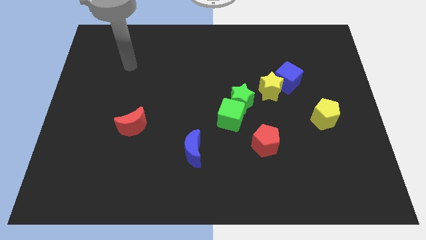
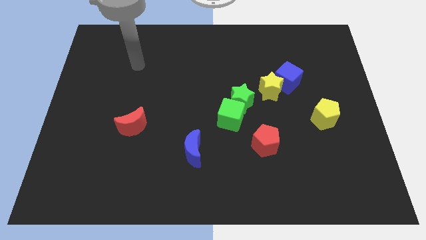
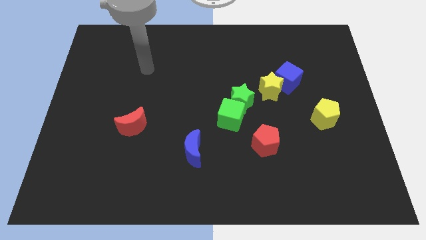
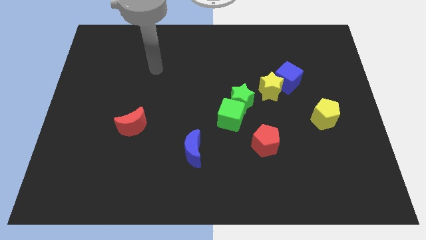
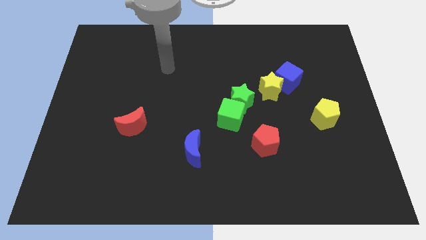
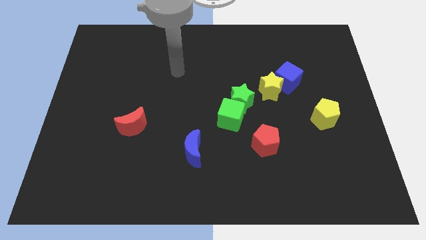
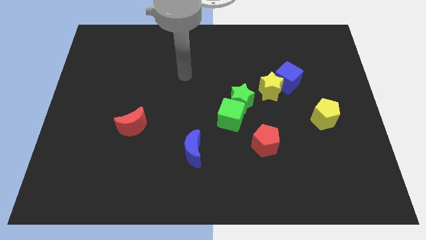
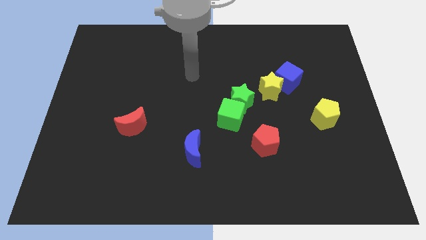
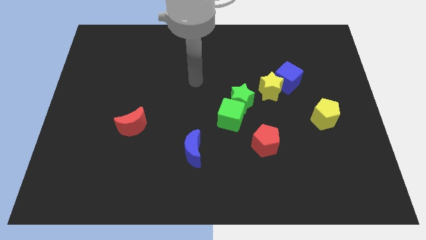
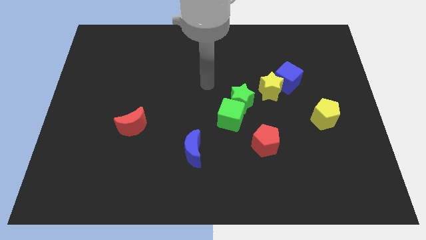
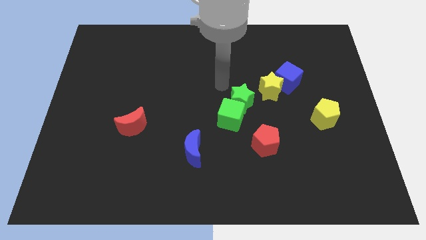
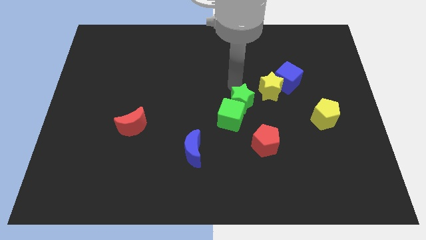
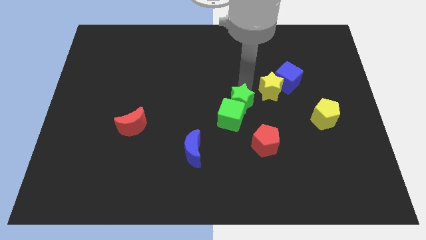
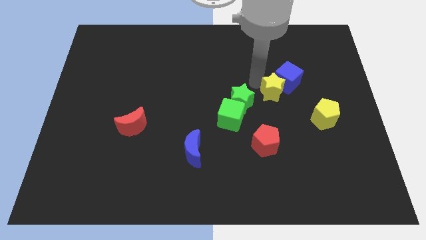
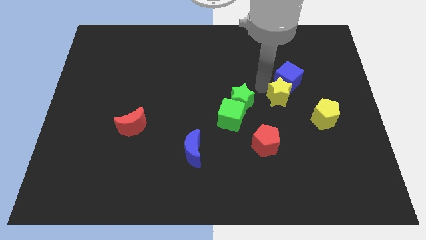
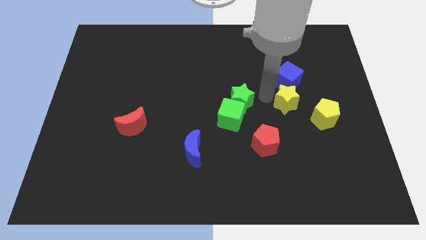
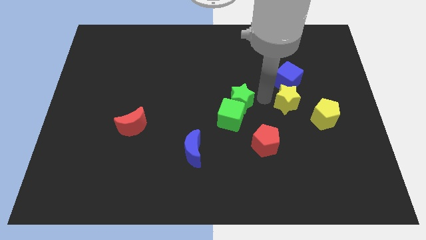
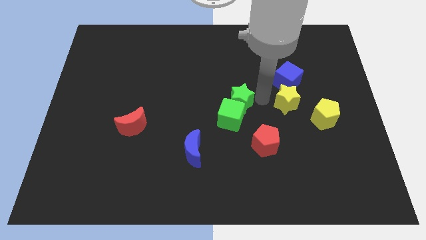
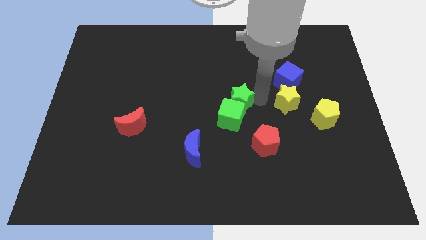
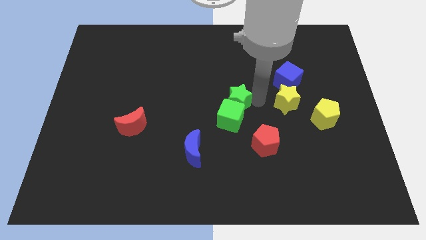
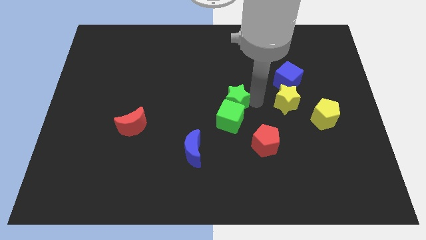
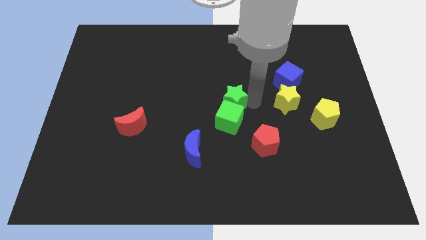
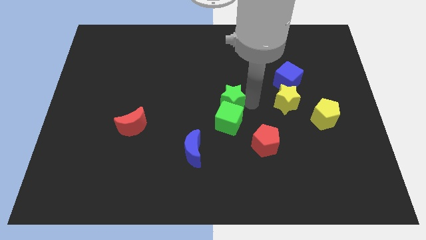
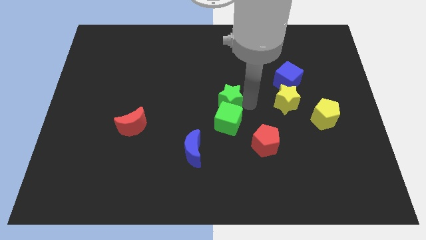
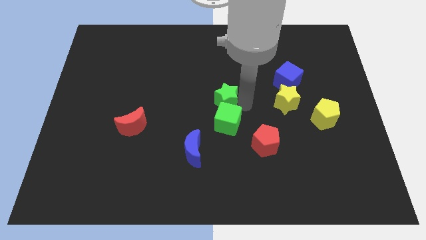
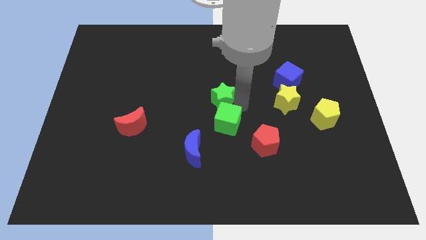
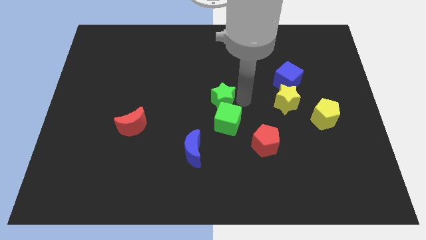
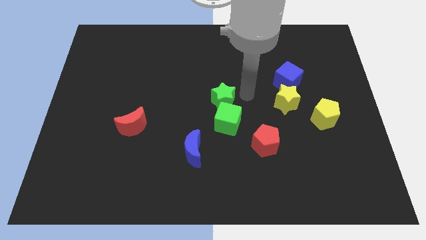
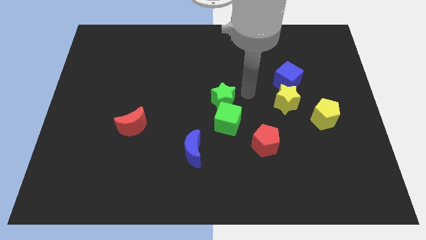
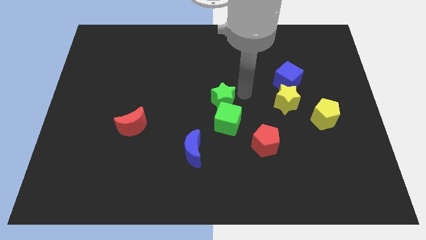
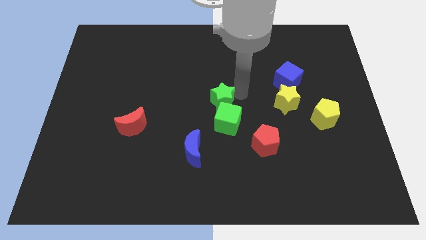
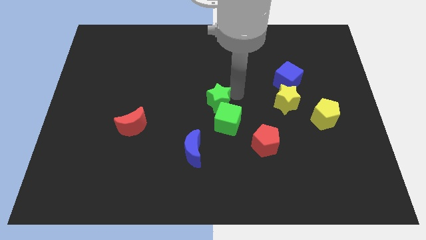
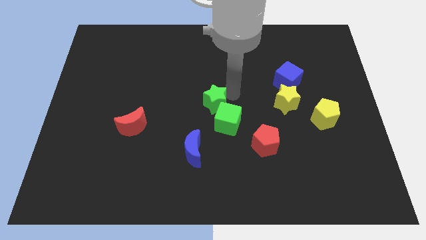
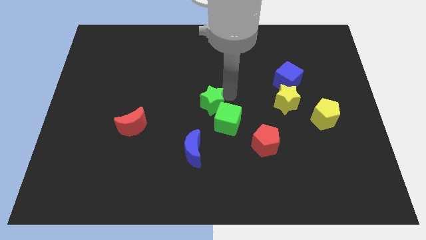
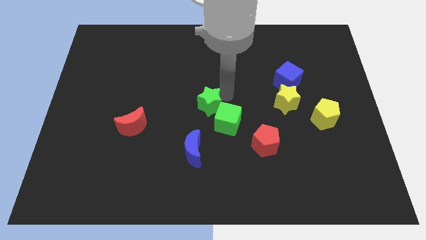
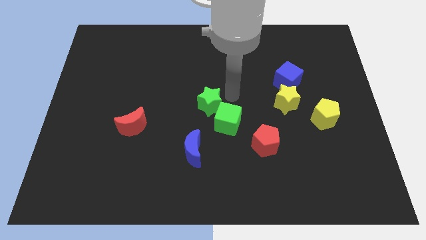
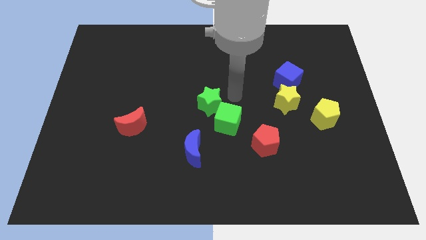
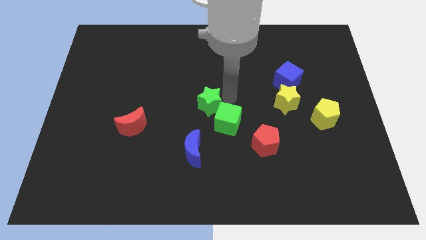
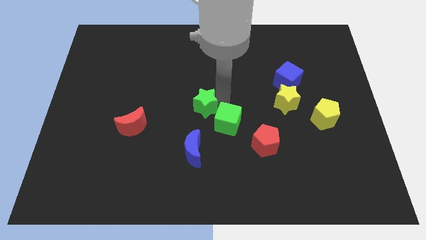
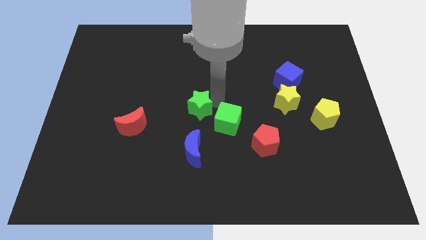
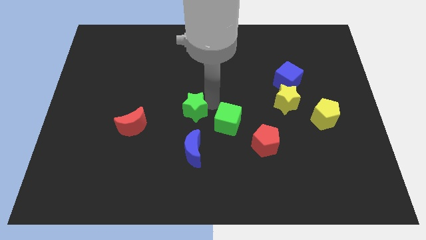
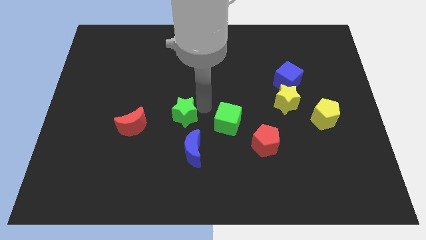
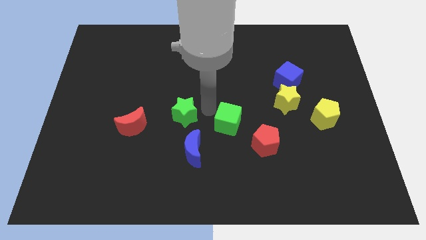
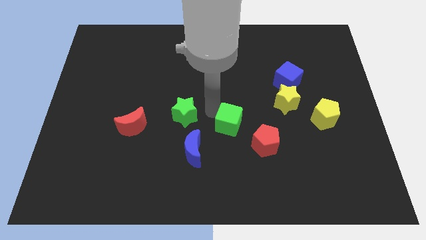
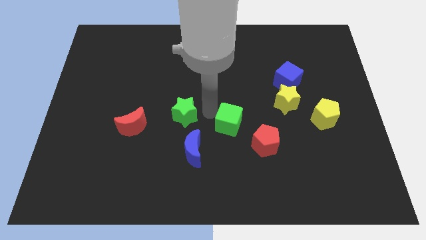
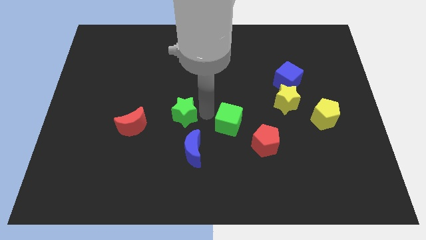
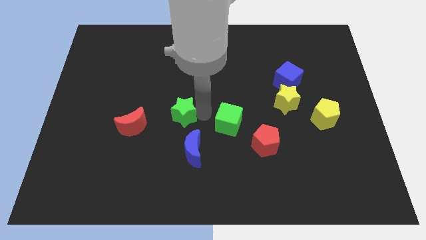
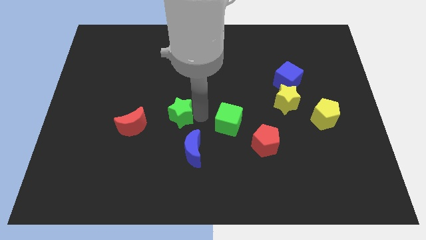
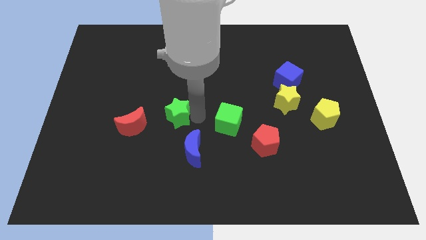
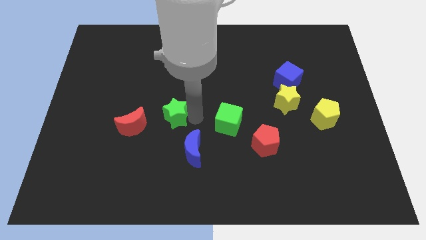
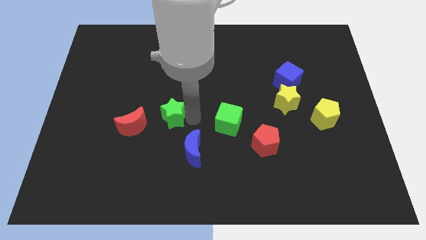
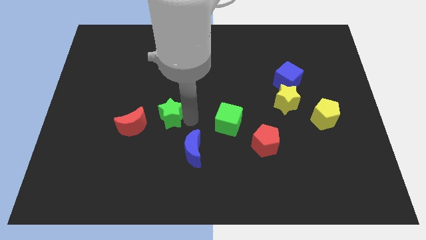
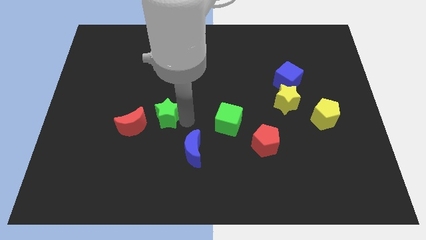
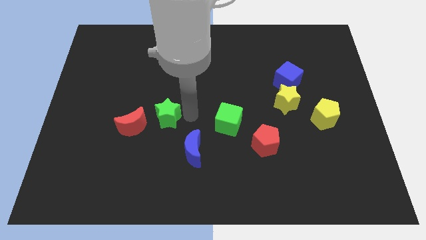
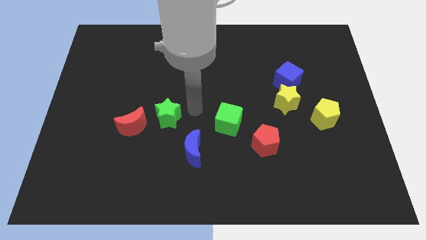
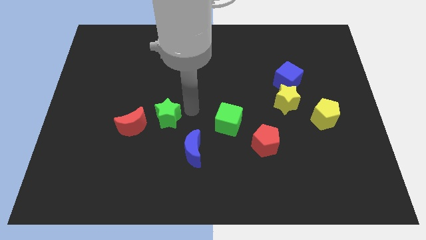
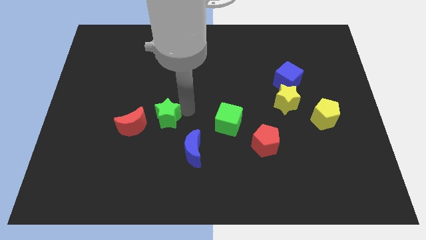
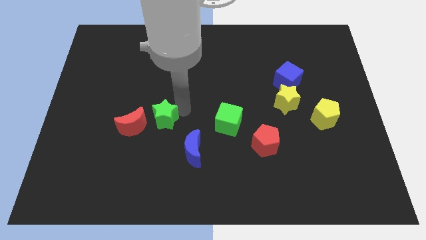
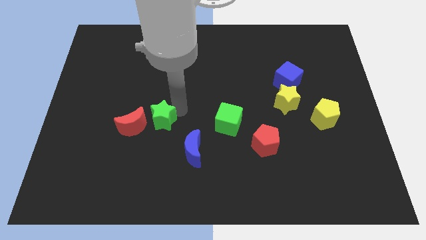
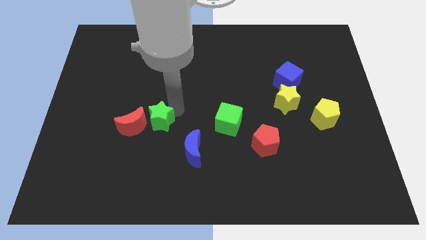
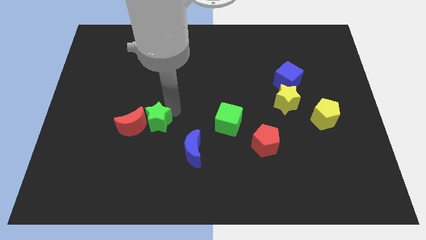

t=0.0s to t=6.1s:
put the green star close to the red moon

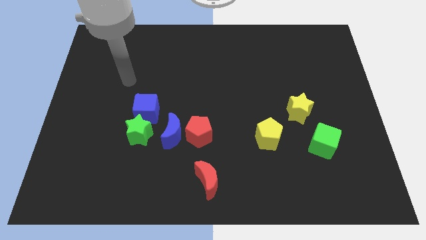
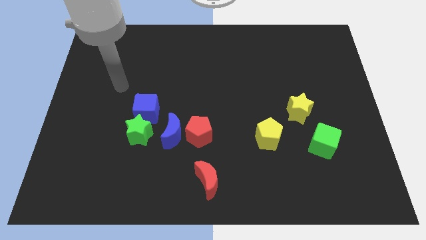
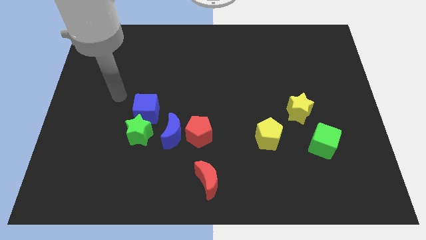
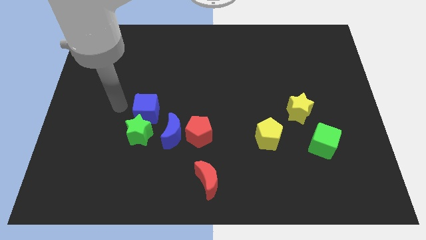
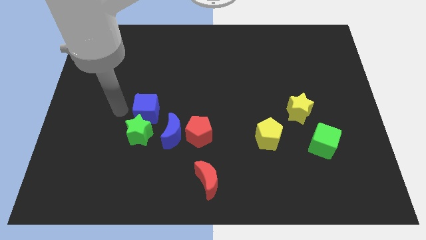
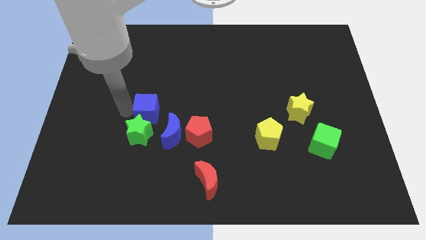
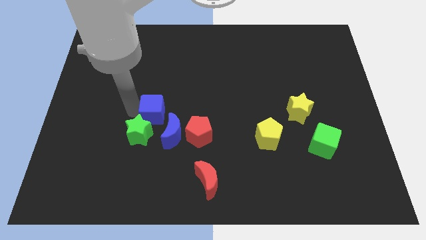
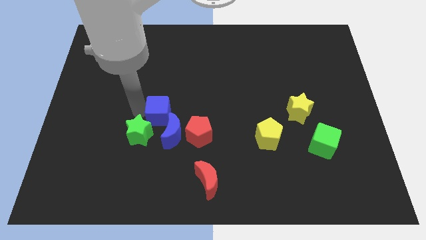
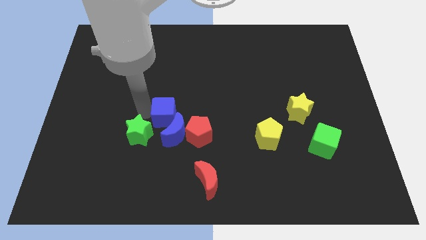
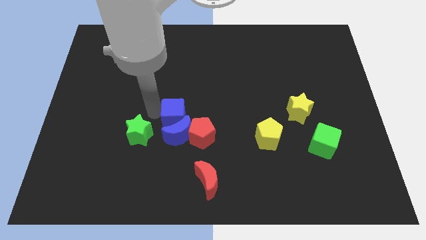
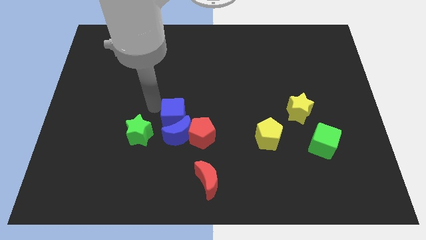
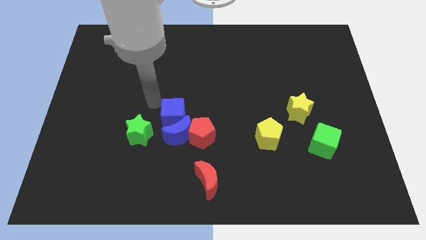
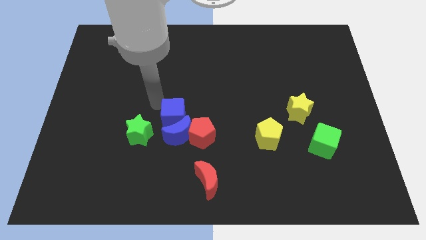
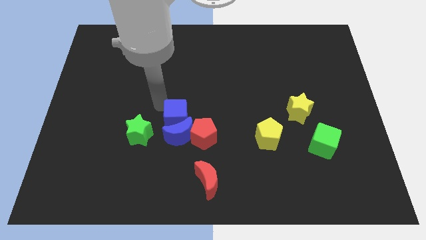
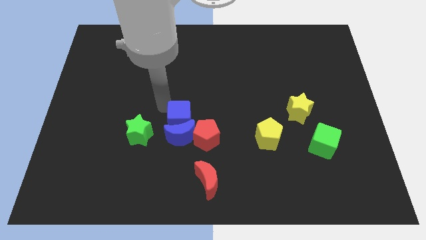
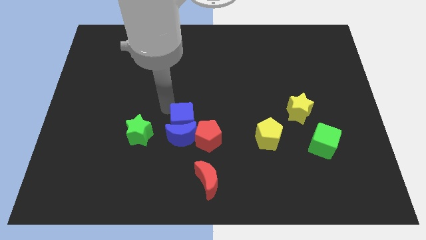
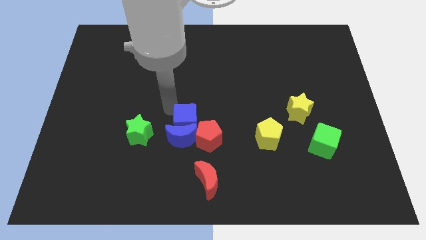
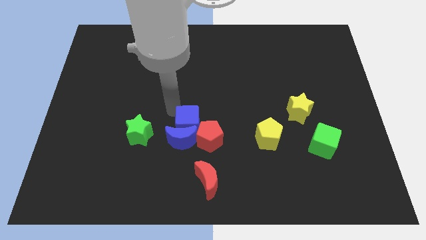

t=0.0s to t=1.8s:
slide the blue cube close to the red pentagon
